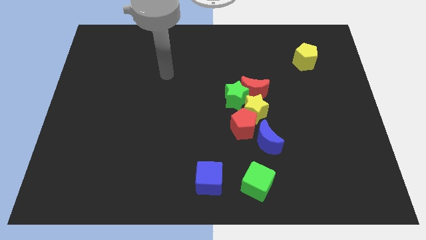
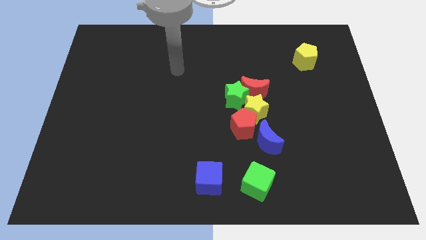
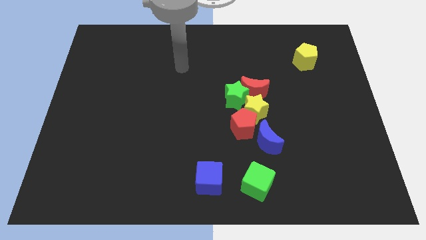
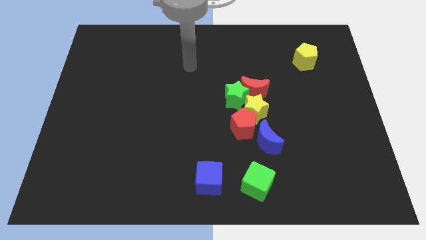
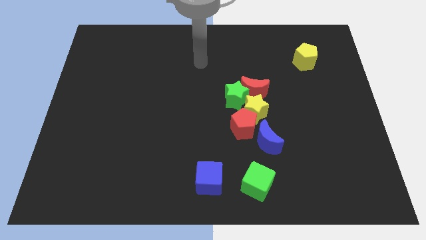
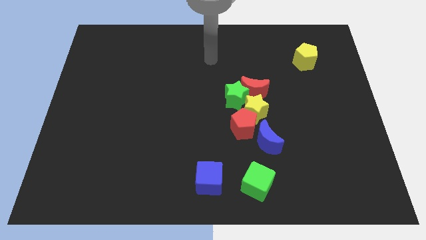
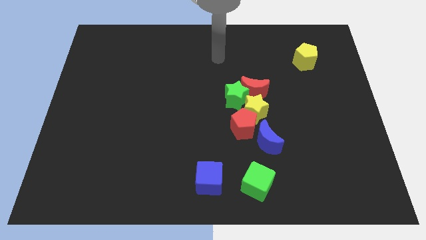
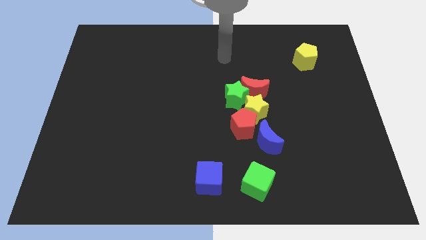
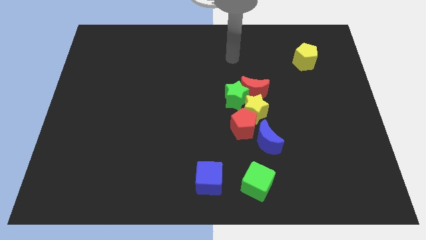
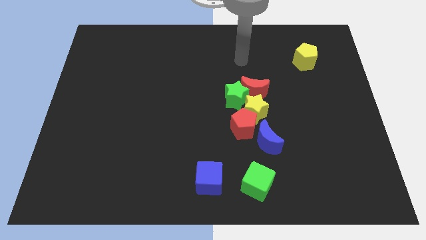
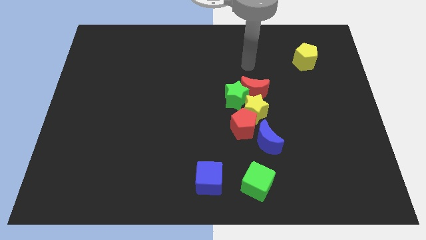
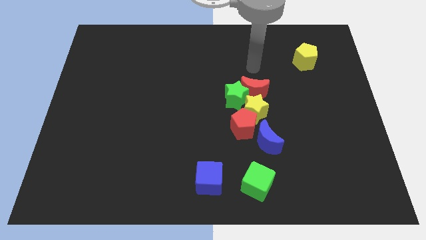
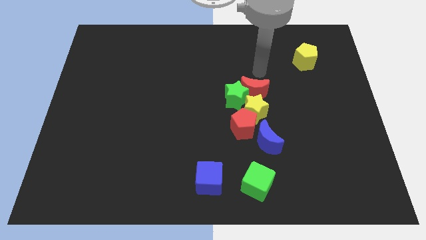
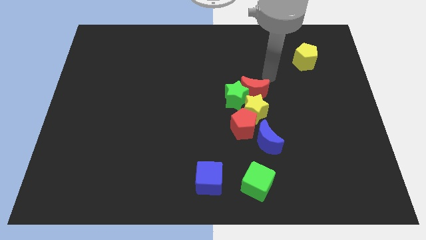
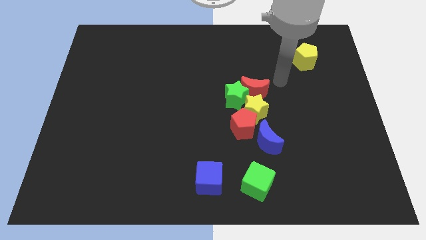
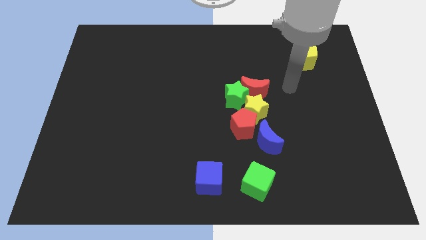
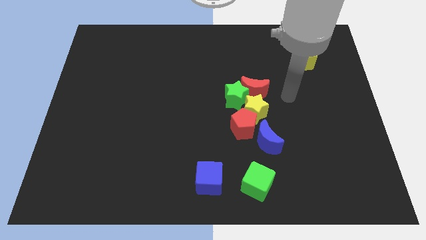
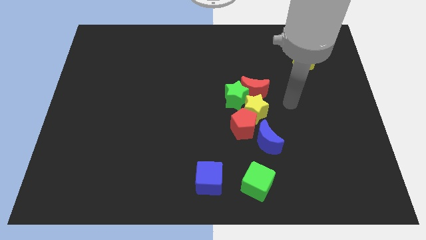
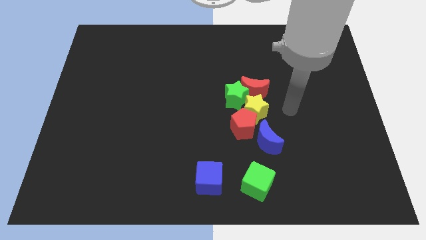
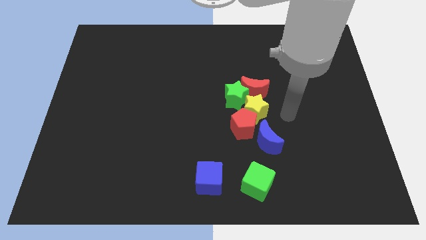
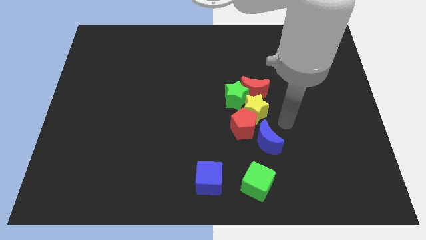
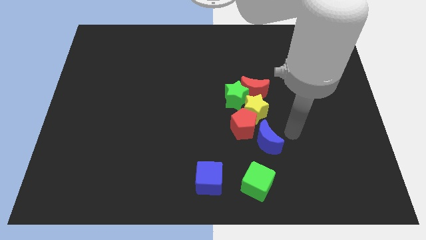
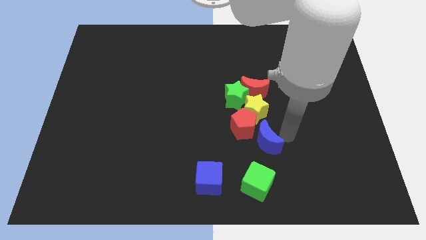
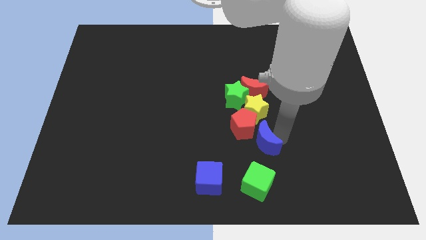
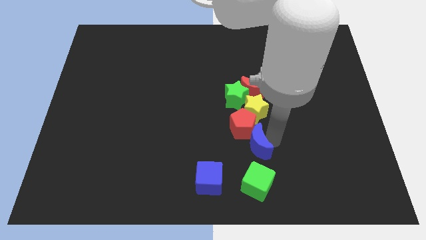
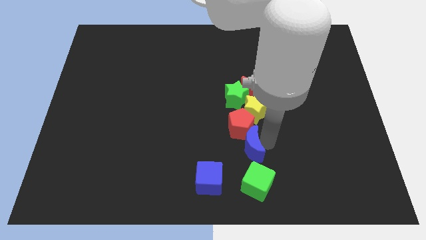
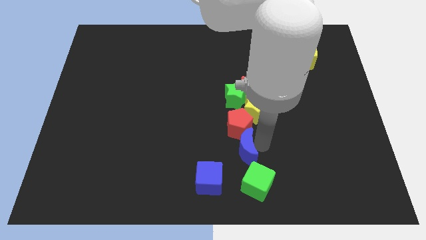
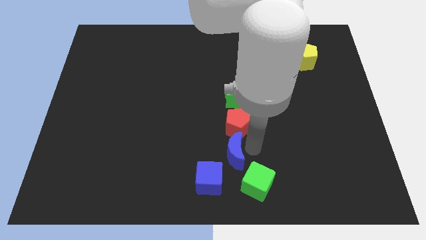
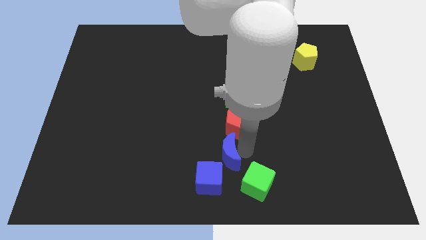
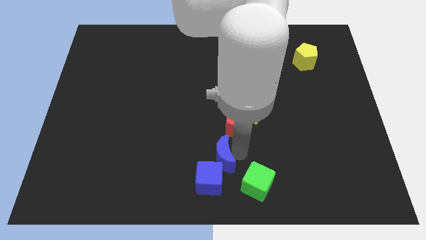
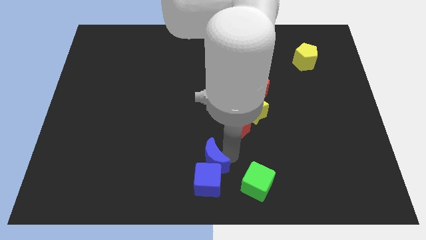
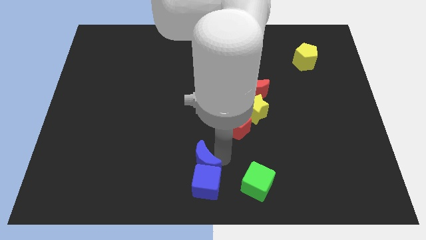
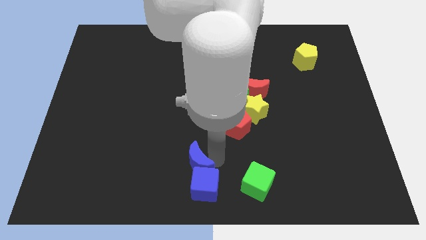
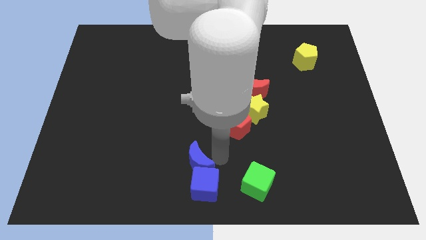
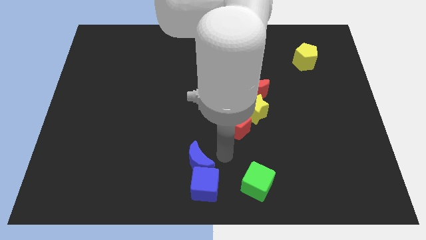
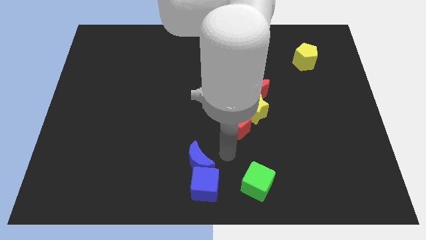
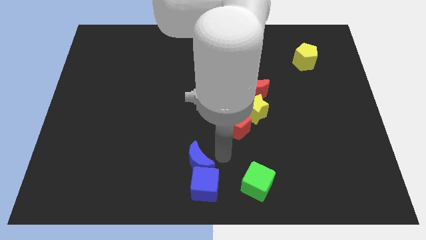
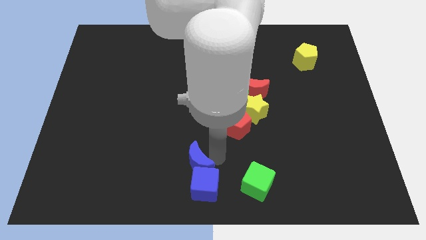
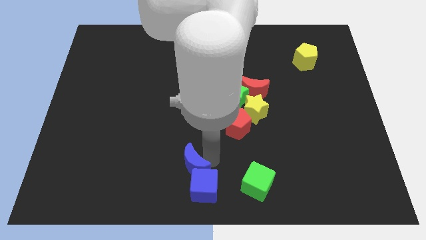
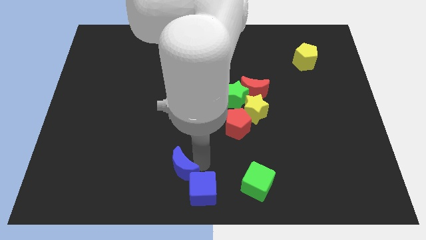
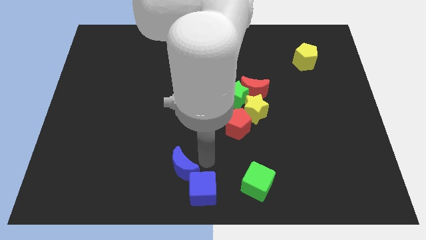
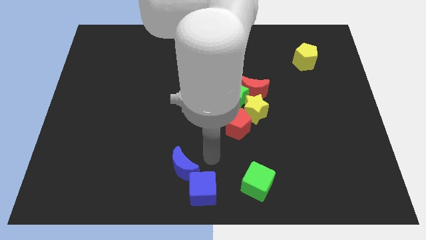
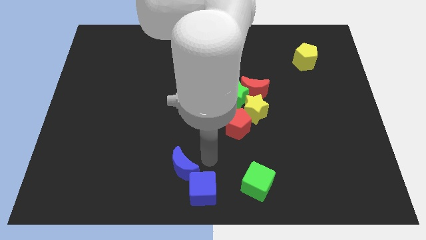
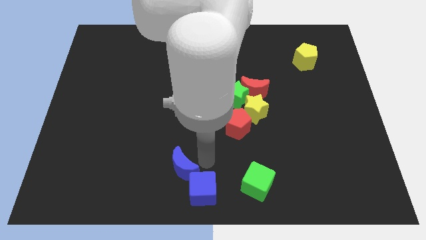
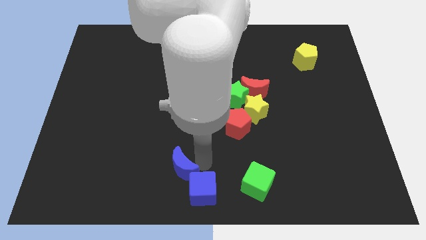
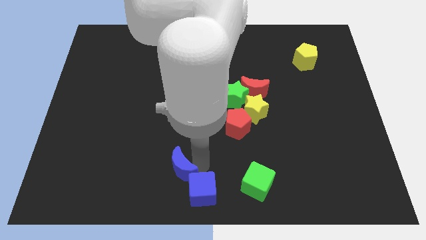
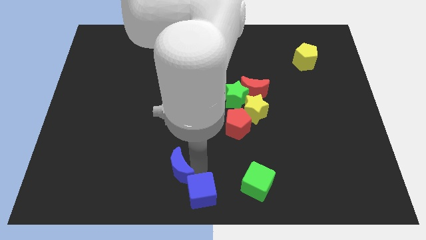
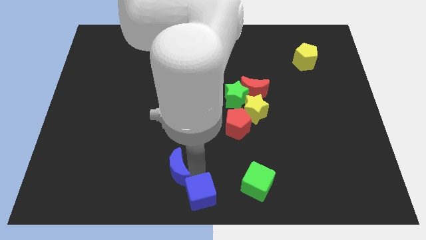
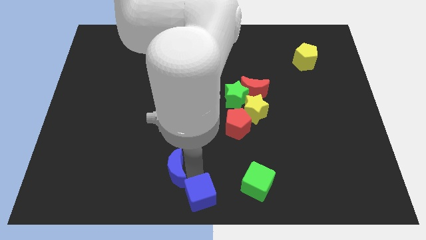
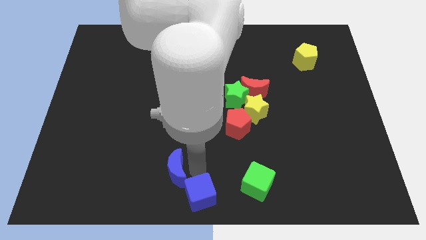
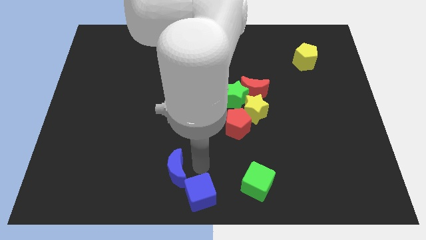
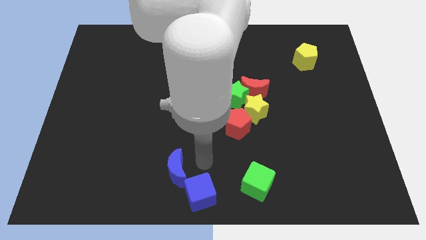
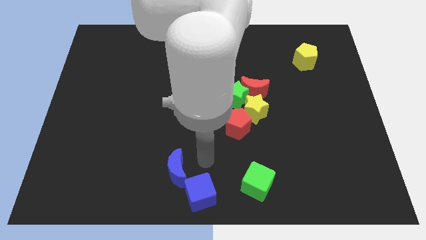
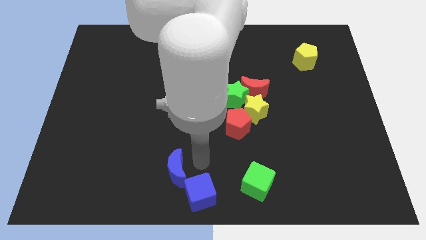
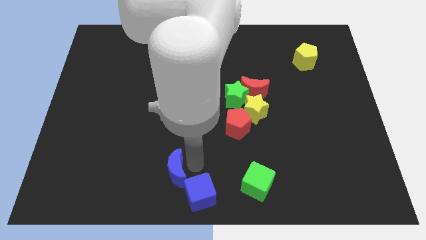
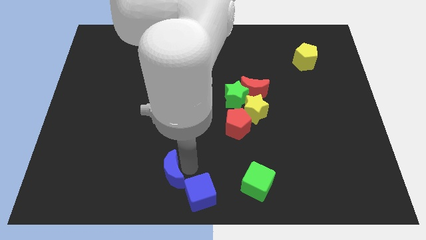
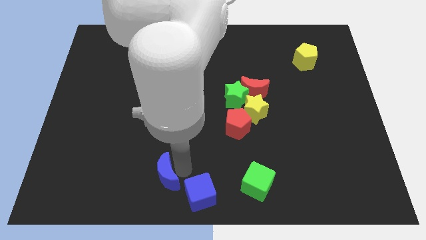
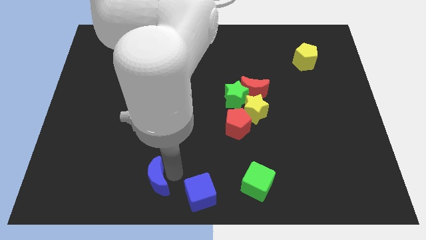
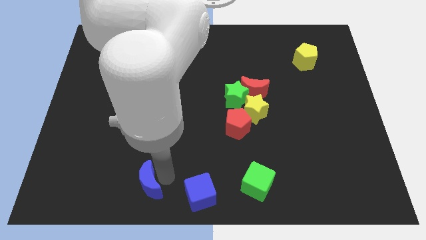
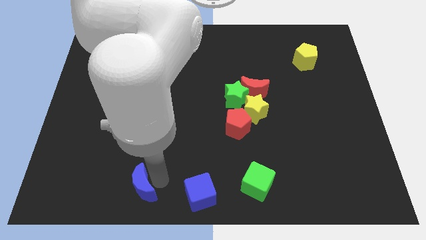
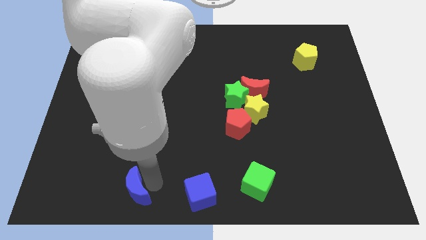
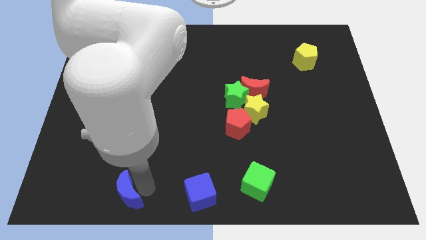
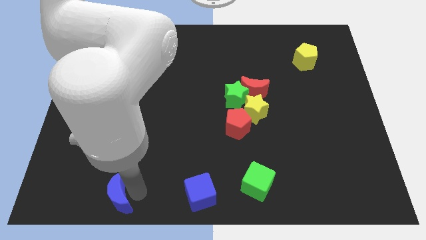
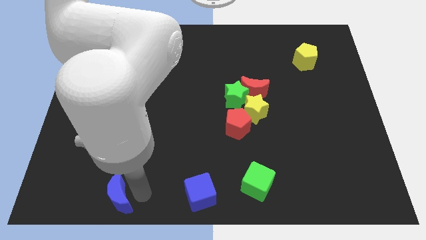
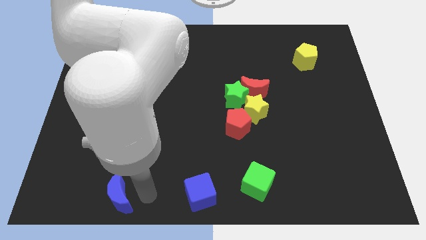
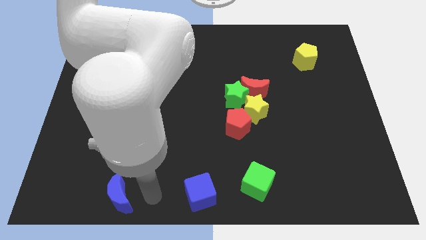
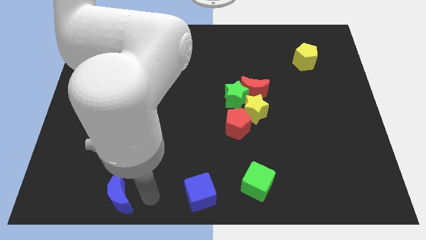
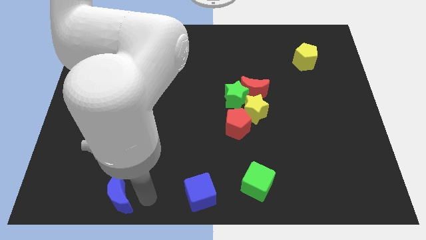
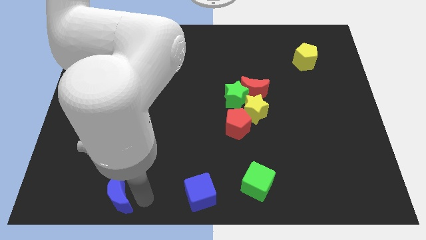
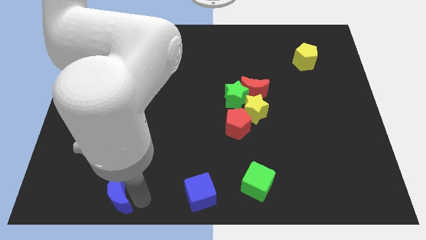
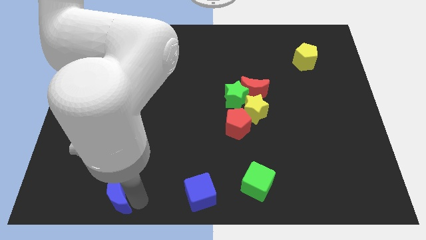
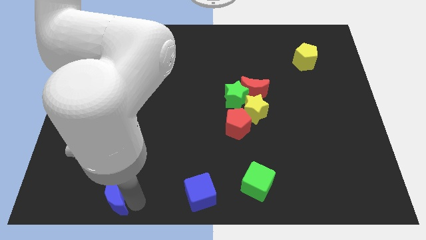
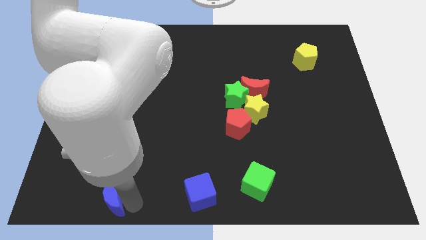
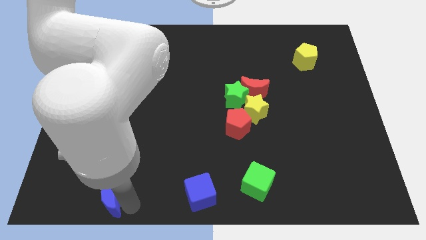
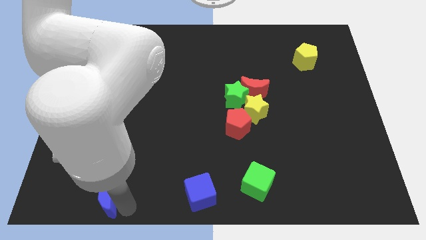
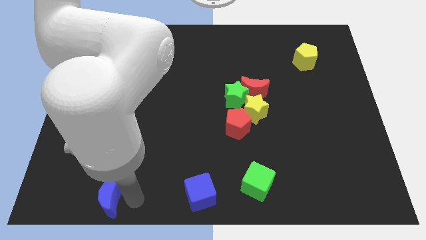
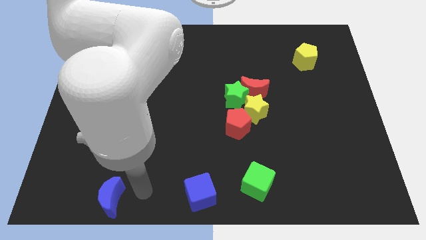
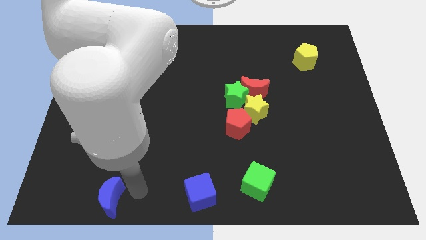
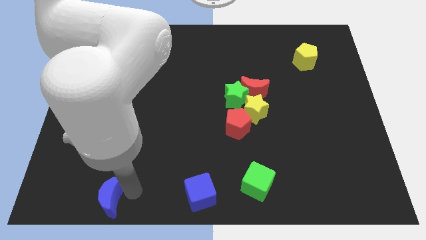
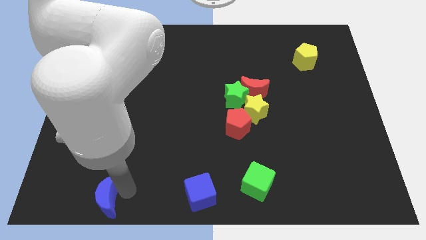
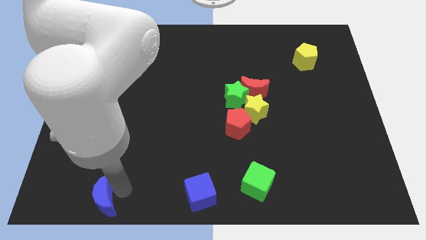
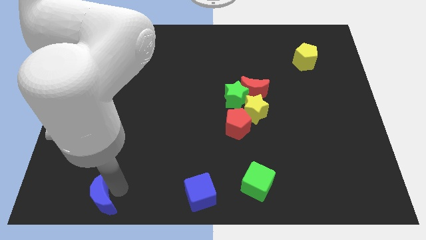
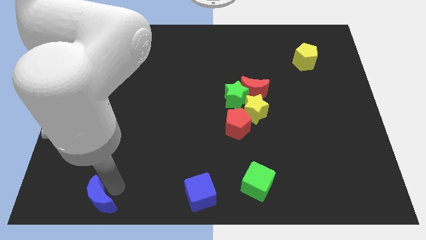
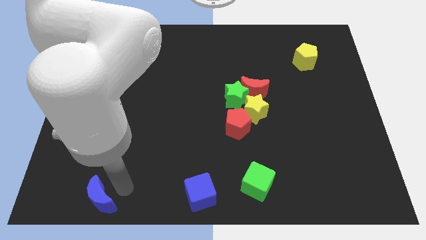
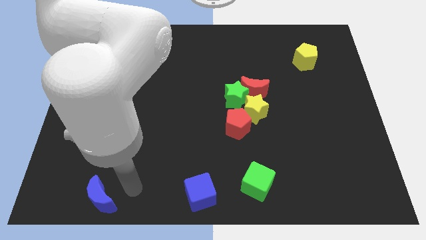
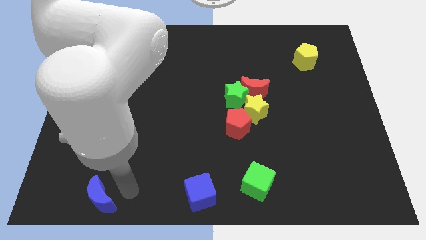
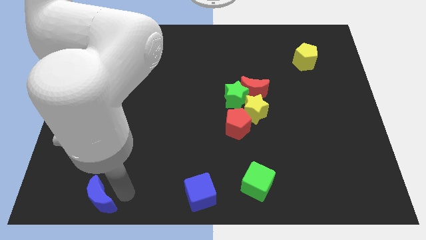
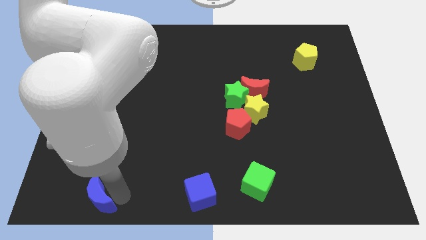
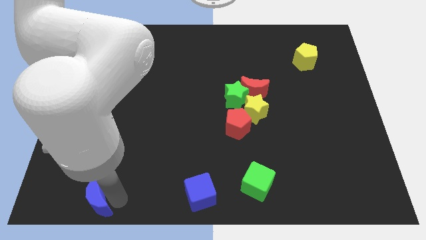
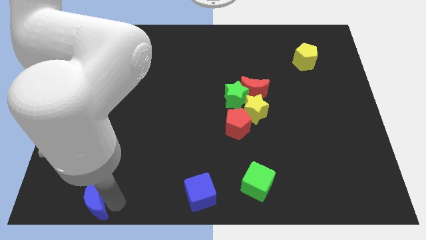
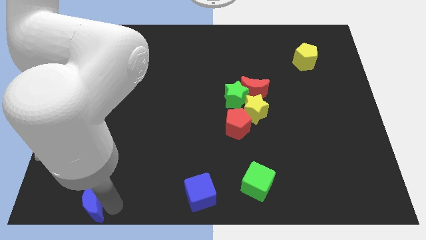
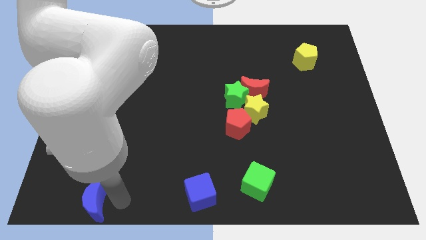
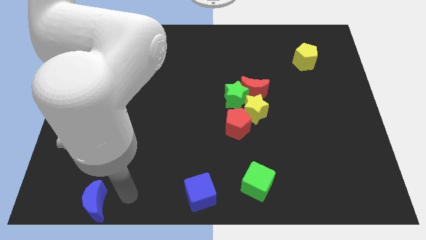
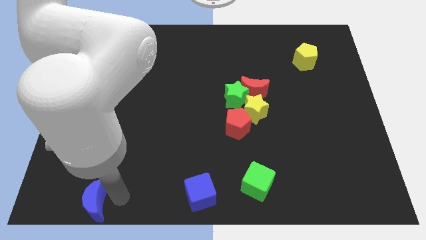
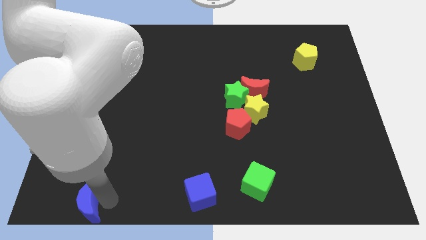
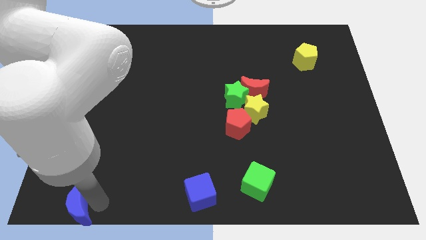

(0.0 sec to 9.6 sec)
put the blue moon to the bottom left
